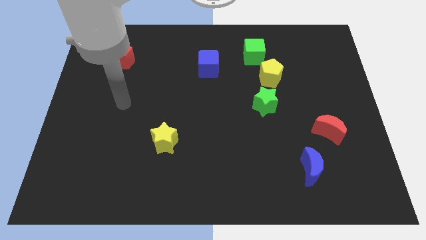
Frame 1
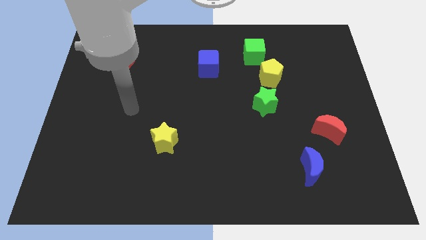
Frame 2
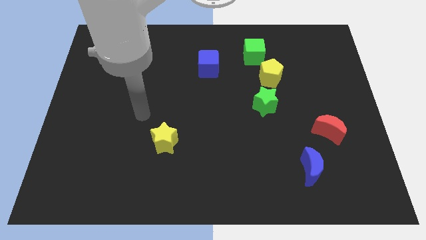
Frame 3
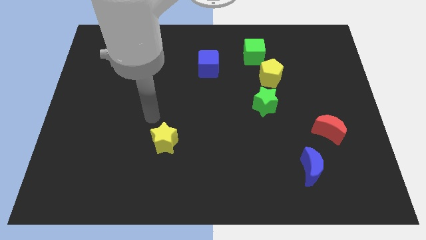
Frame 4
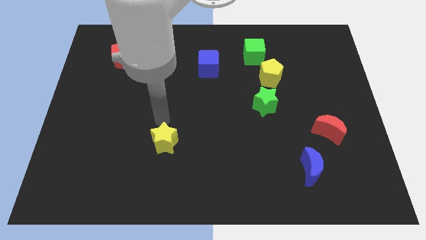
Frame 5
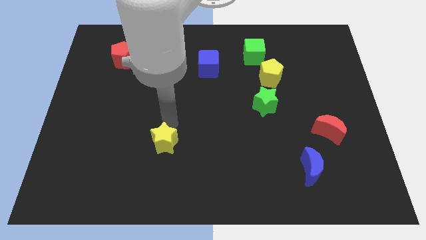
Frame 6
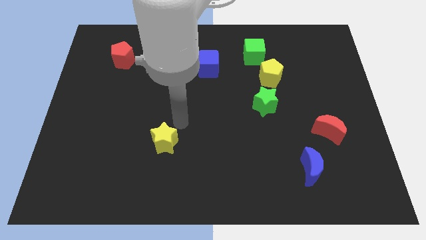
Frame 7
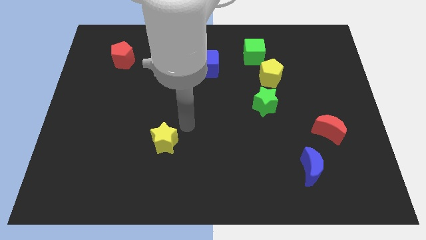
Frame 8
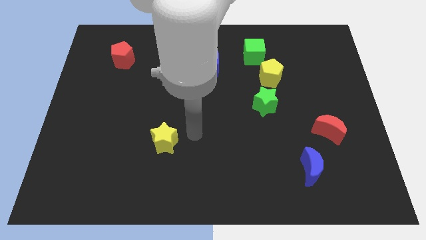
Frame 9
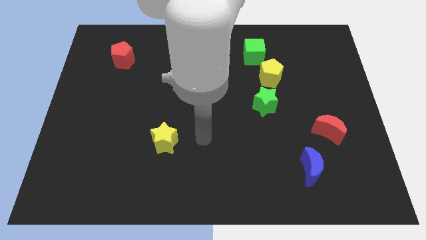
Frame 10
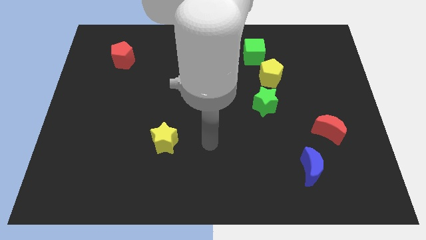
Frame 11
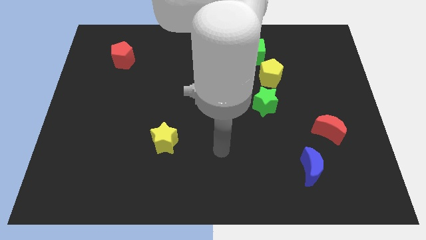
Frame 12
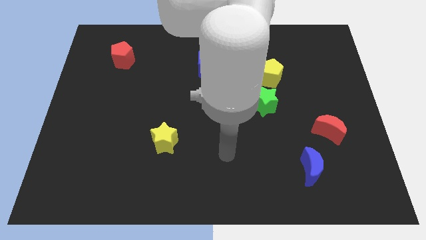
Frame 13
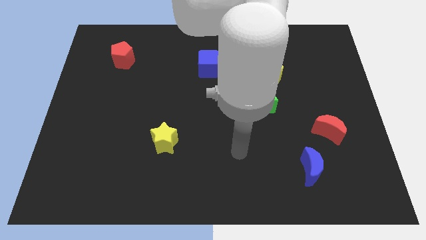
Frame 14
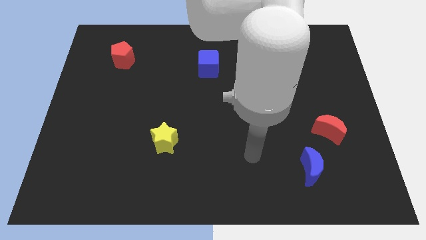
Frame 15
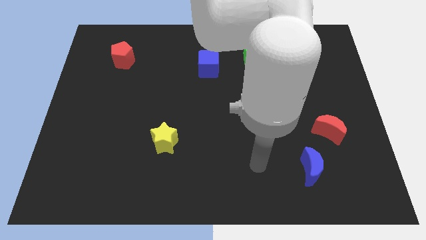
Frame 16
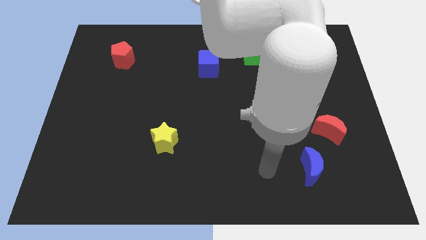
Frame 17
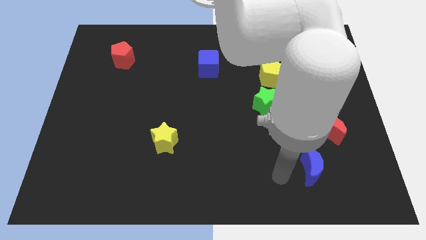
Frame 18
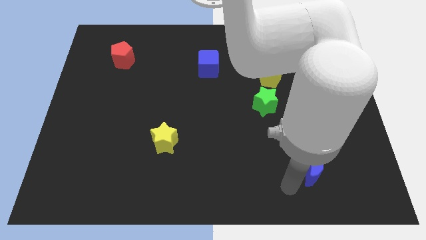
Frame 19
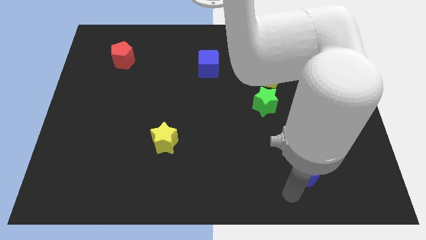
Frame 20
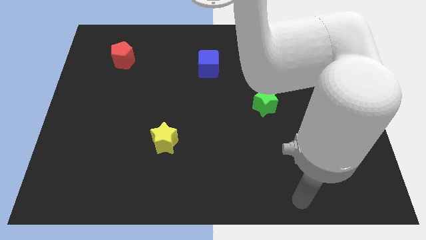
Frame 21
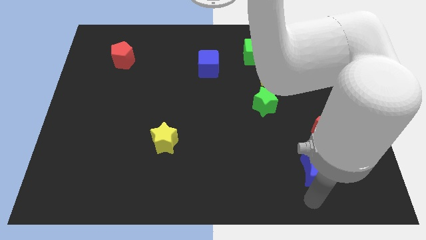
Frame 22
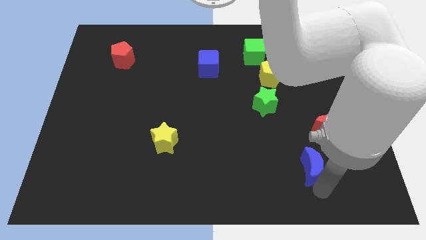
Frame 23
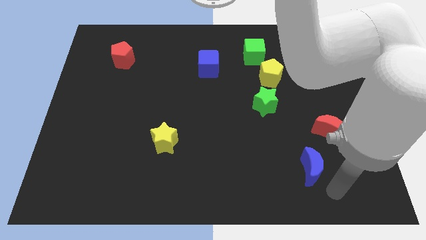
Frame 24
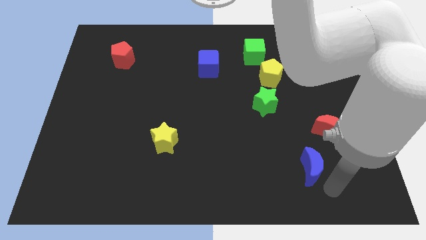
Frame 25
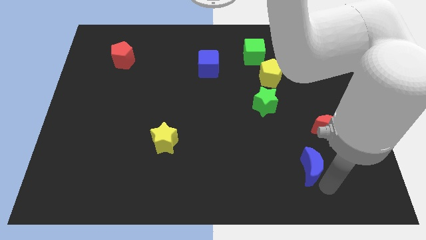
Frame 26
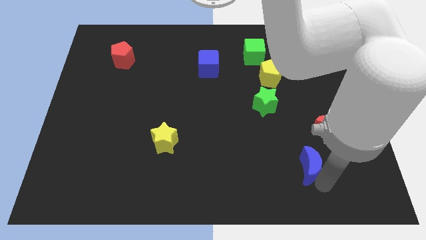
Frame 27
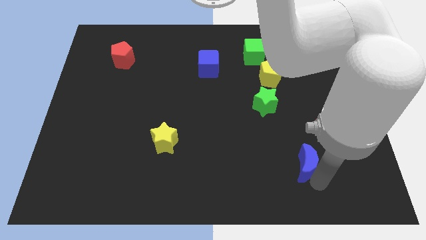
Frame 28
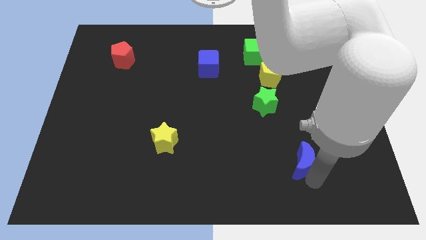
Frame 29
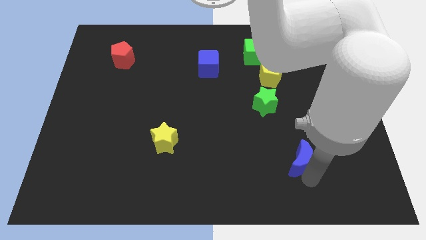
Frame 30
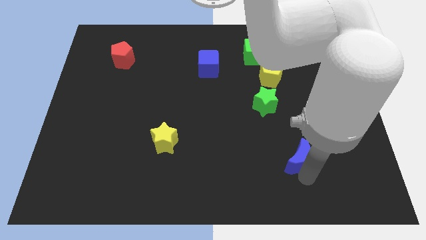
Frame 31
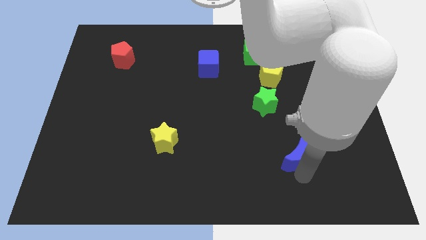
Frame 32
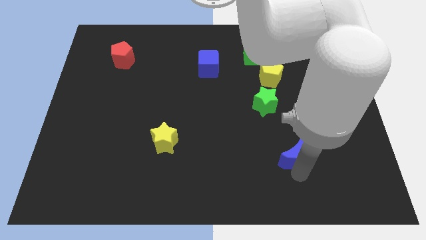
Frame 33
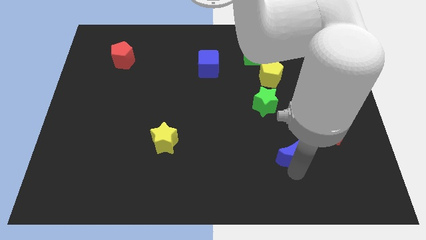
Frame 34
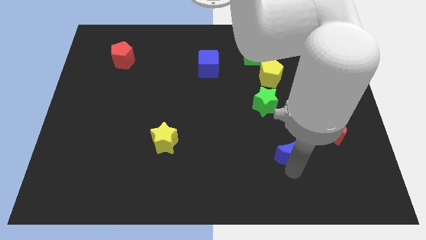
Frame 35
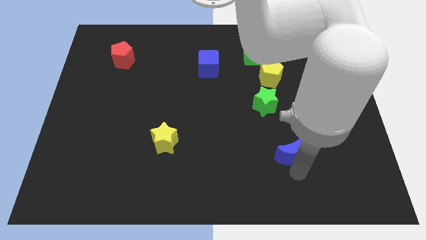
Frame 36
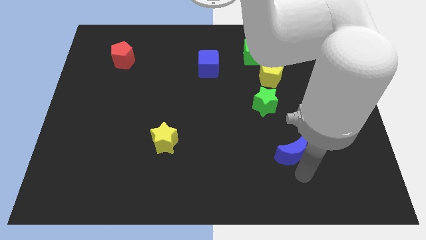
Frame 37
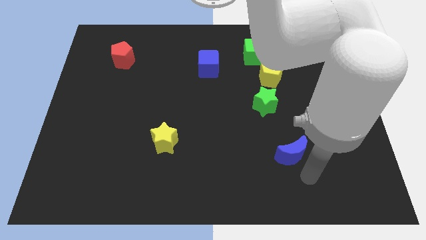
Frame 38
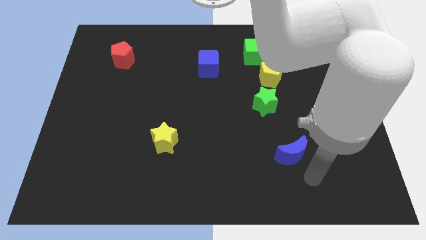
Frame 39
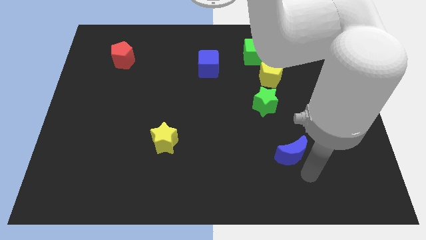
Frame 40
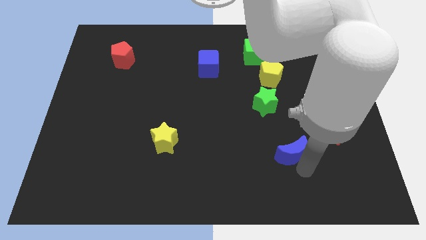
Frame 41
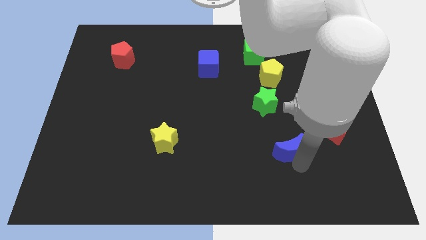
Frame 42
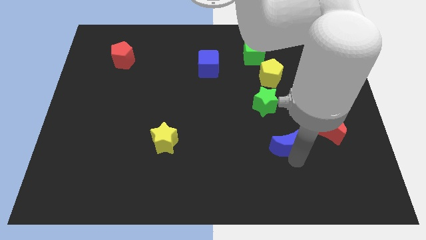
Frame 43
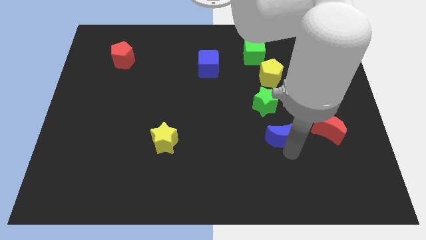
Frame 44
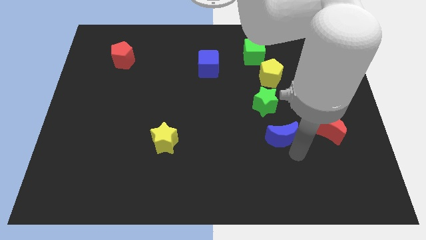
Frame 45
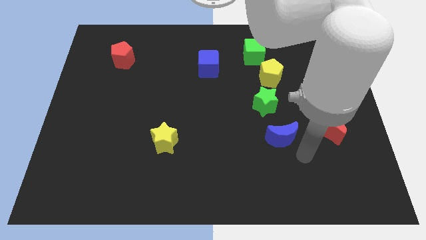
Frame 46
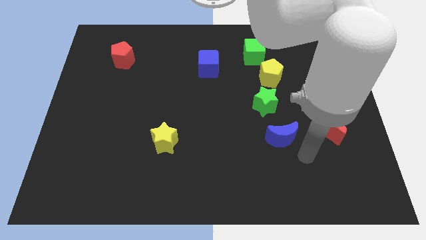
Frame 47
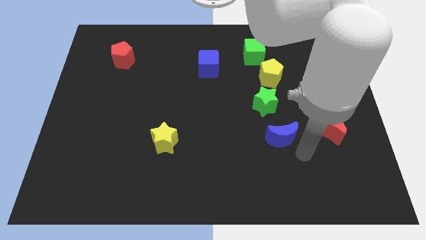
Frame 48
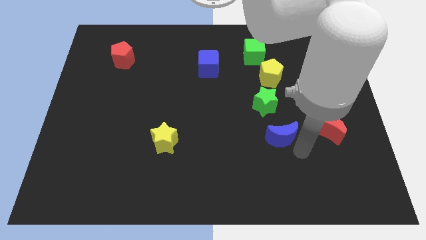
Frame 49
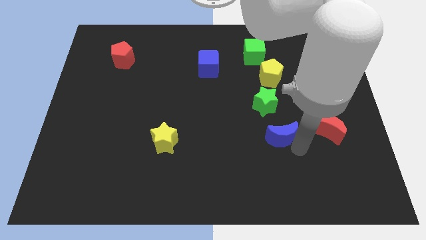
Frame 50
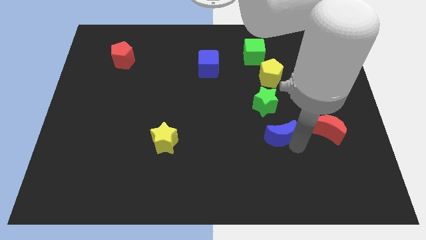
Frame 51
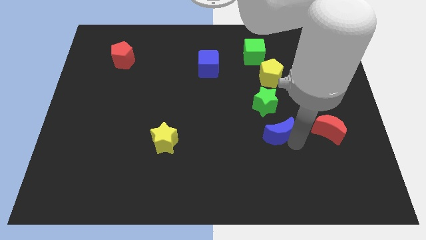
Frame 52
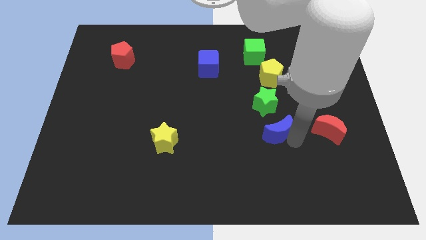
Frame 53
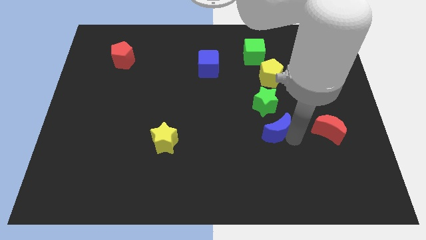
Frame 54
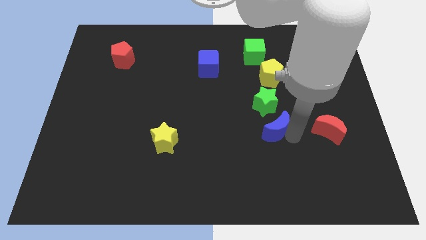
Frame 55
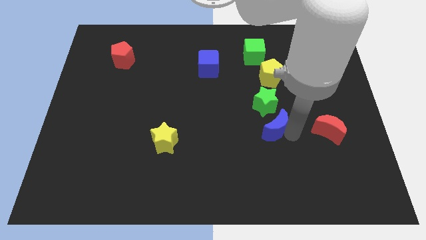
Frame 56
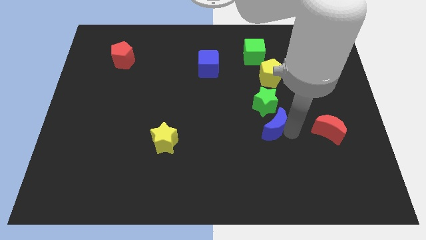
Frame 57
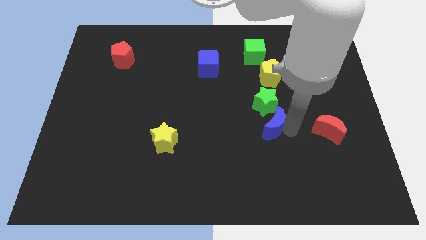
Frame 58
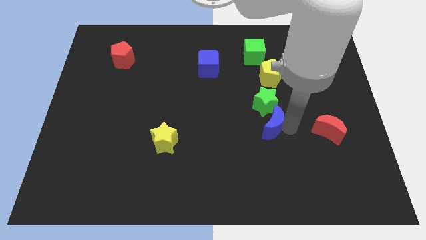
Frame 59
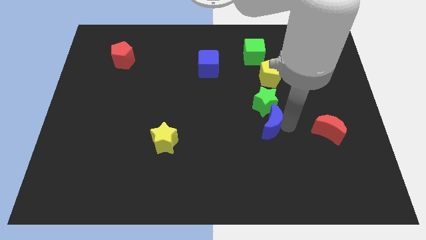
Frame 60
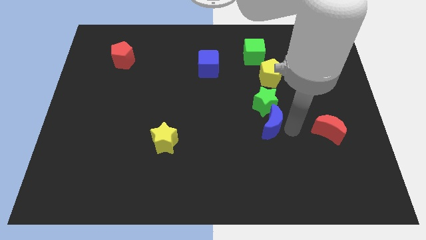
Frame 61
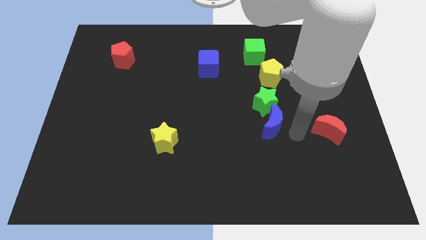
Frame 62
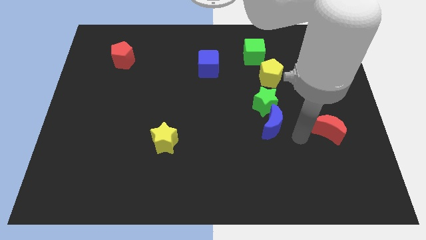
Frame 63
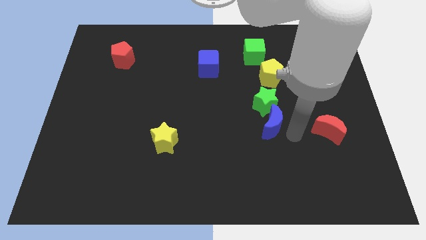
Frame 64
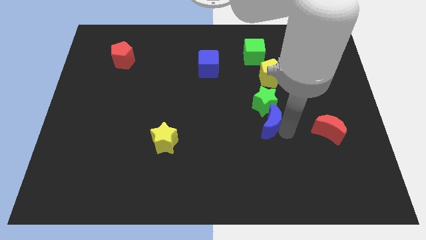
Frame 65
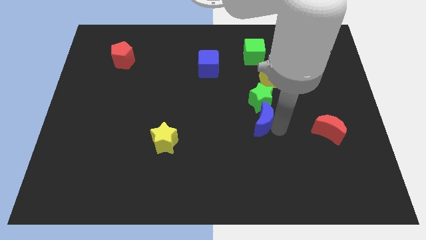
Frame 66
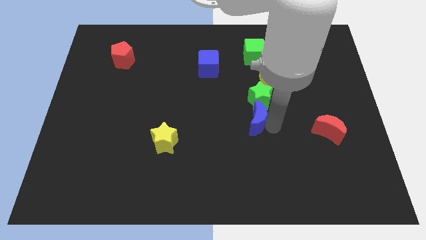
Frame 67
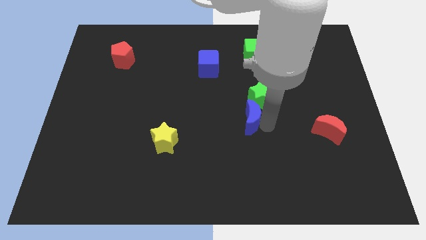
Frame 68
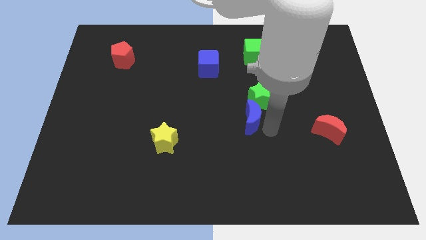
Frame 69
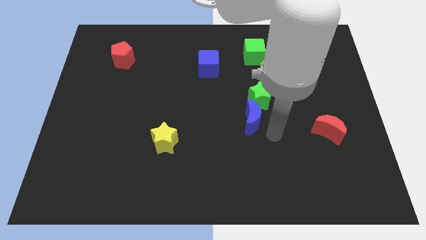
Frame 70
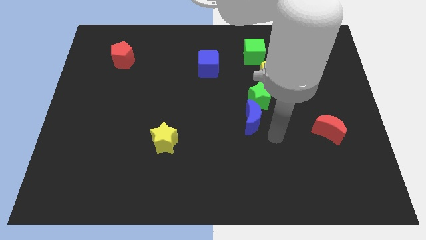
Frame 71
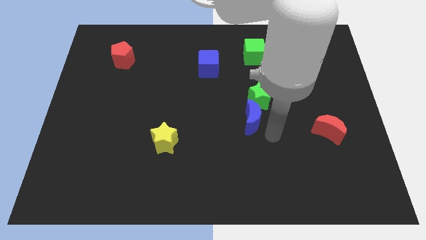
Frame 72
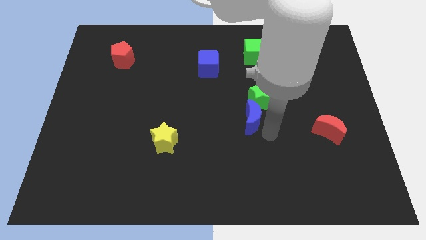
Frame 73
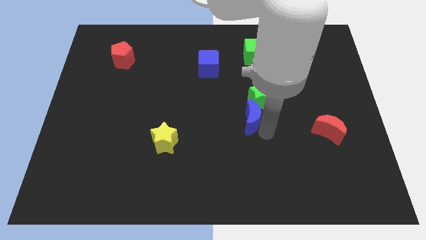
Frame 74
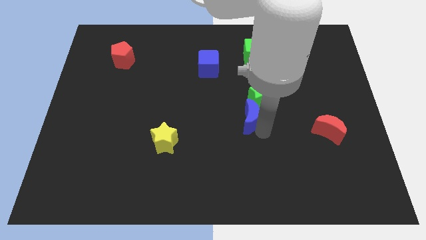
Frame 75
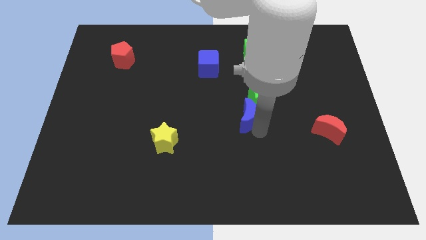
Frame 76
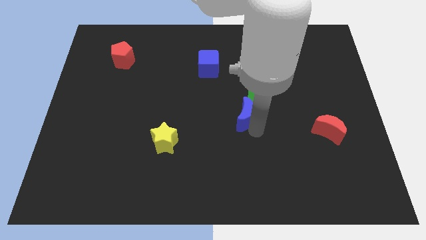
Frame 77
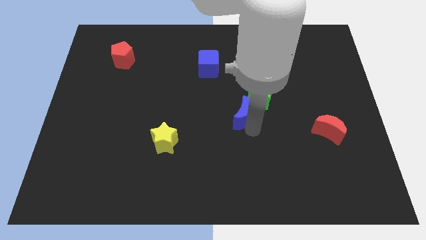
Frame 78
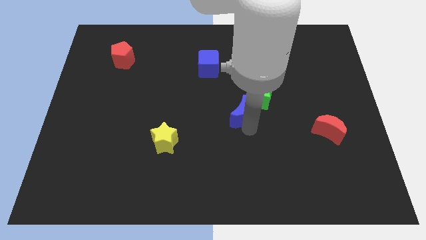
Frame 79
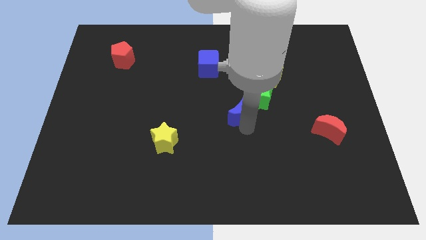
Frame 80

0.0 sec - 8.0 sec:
push the blue moon up and to the left diagonally
